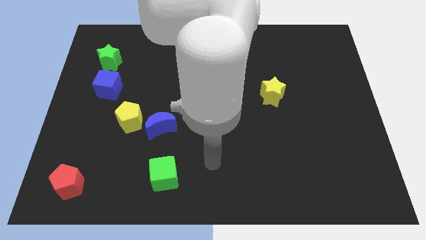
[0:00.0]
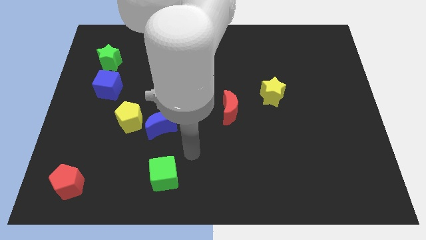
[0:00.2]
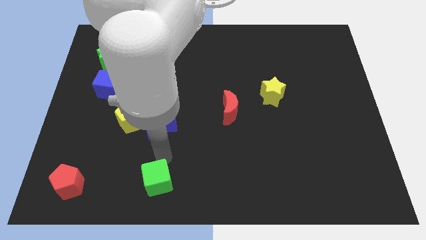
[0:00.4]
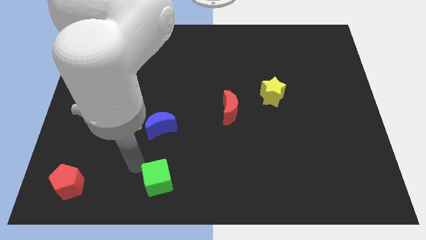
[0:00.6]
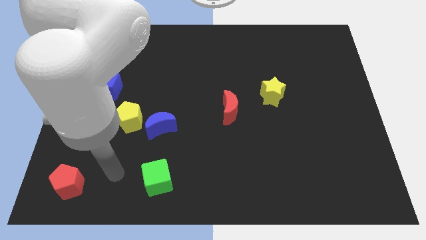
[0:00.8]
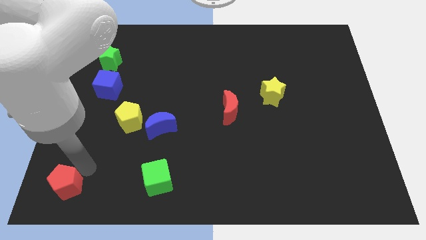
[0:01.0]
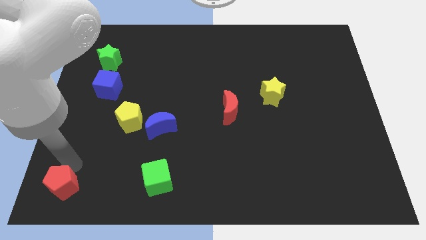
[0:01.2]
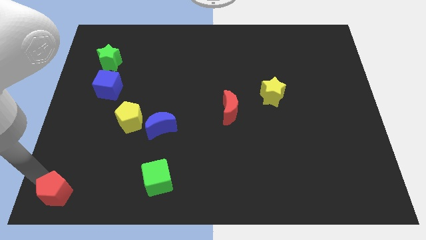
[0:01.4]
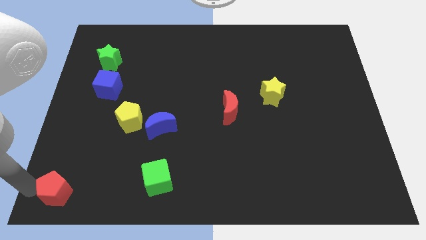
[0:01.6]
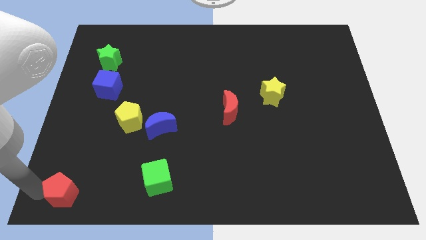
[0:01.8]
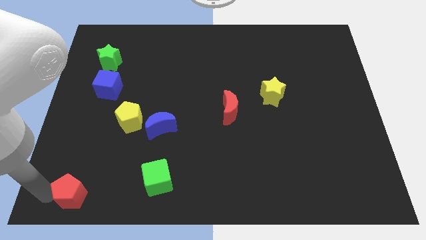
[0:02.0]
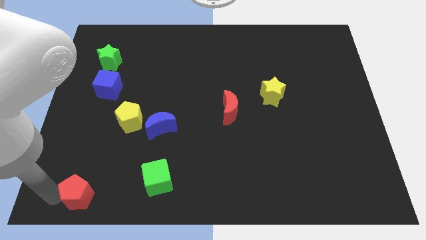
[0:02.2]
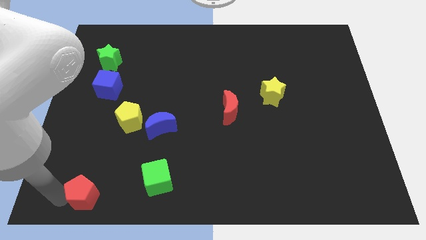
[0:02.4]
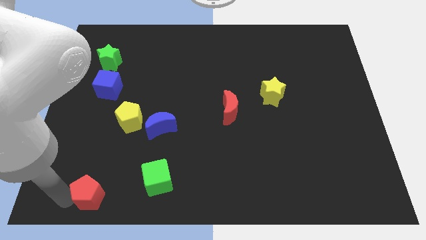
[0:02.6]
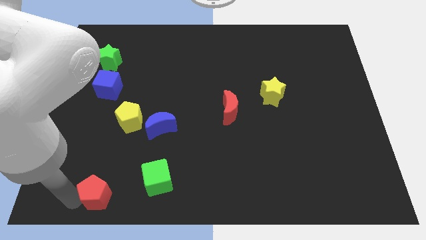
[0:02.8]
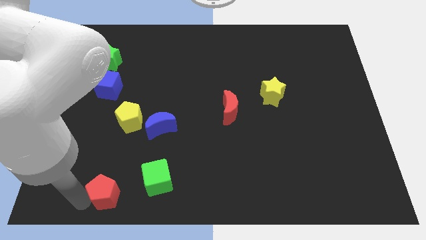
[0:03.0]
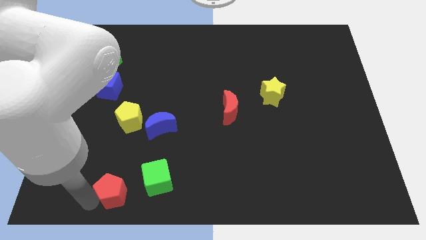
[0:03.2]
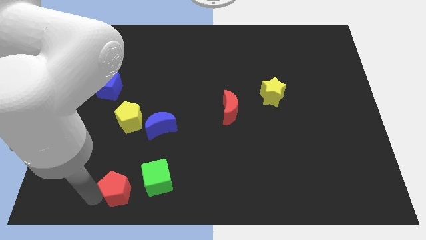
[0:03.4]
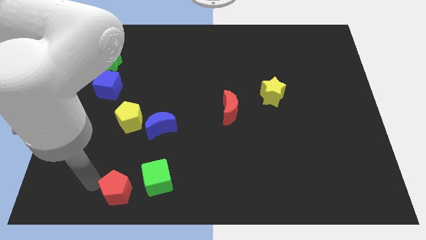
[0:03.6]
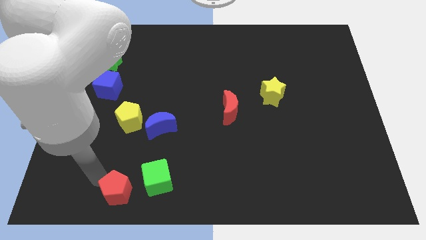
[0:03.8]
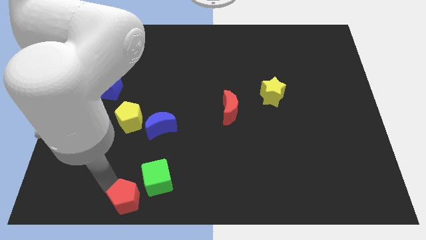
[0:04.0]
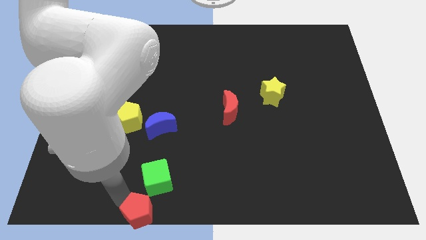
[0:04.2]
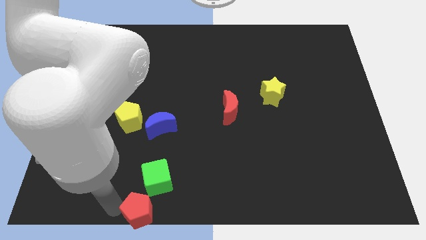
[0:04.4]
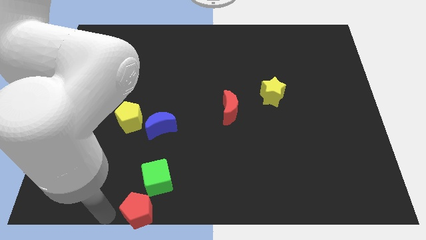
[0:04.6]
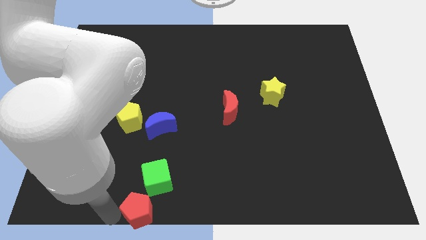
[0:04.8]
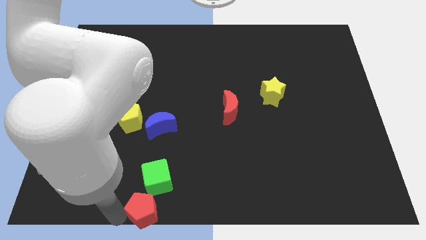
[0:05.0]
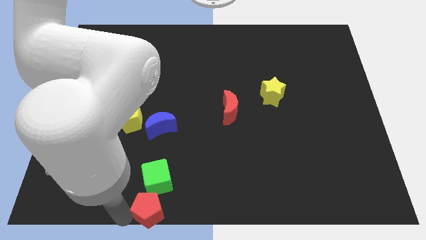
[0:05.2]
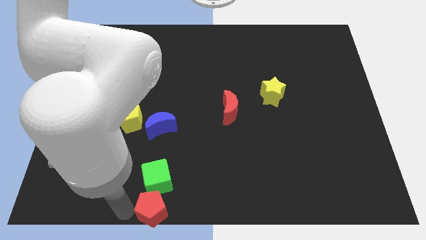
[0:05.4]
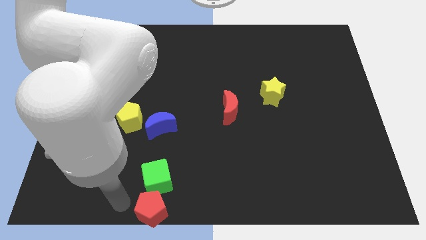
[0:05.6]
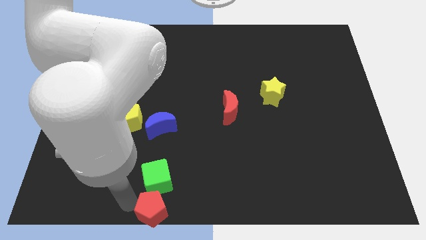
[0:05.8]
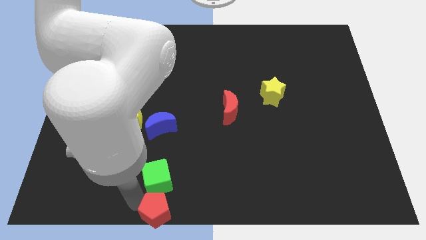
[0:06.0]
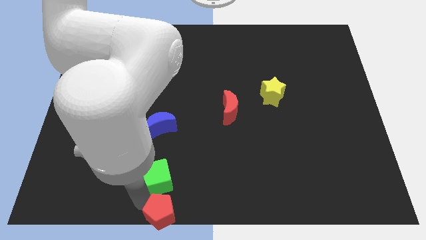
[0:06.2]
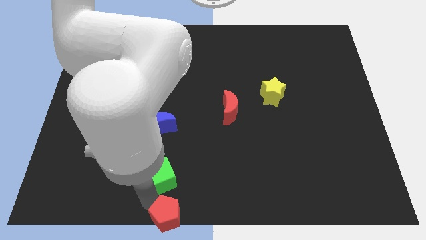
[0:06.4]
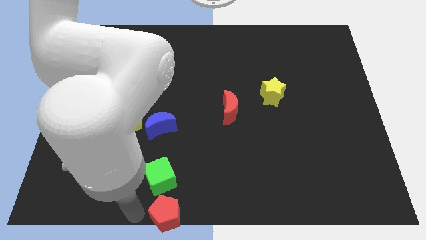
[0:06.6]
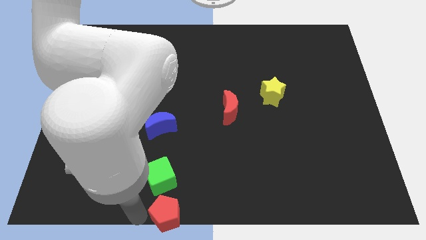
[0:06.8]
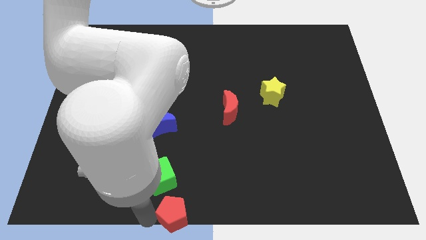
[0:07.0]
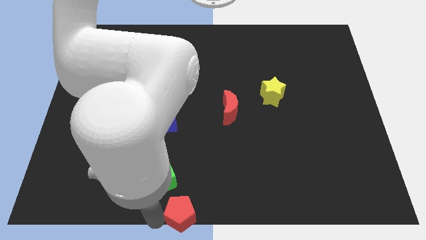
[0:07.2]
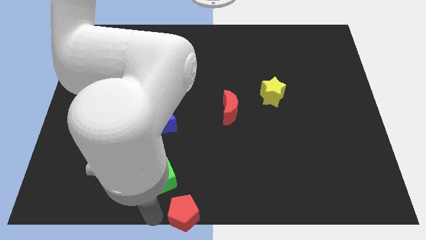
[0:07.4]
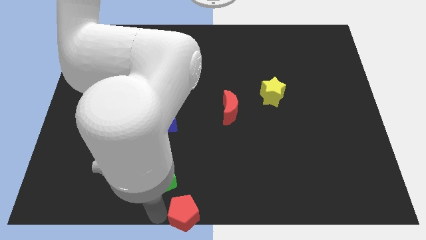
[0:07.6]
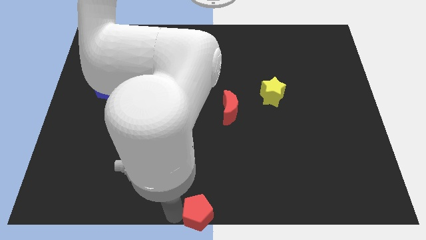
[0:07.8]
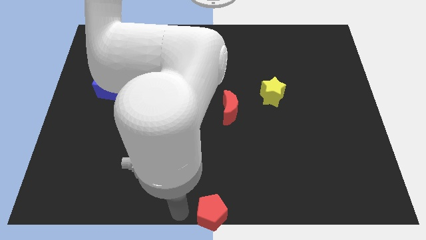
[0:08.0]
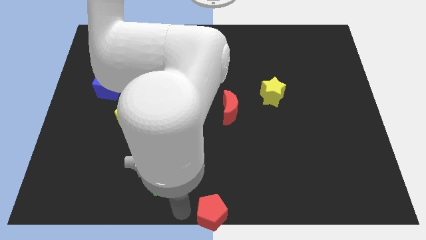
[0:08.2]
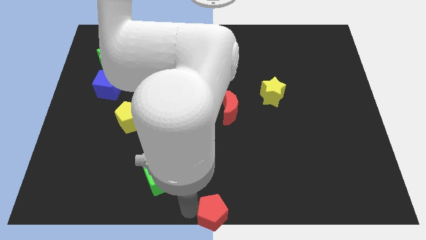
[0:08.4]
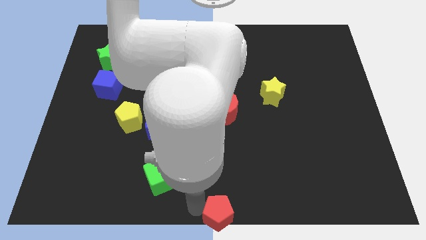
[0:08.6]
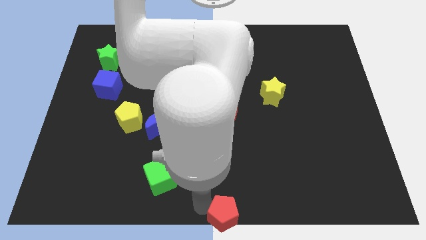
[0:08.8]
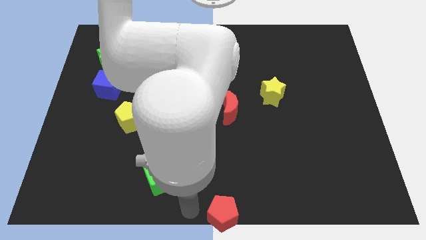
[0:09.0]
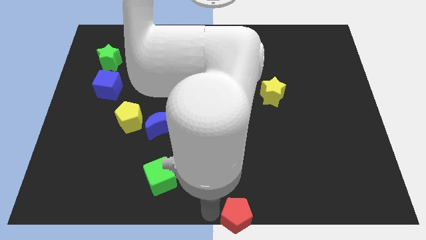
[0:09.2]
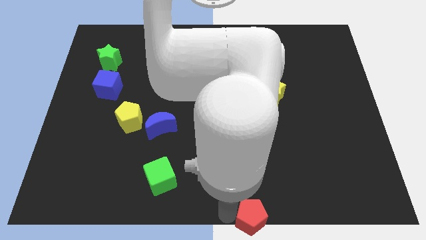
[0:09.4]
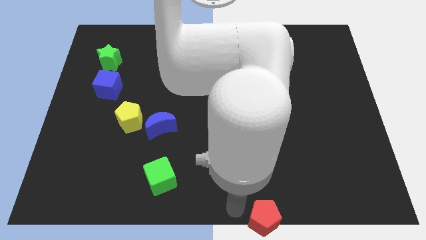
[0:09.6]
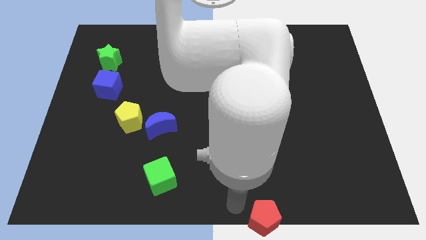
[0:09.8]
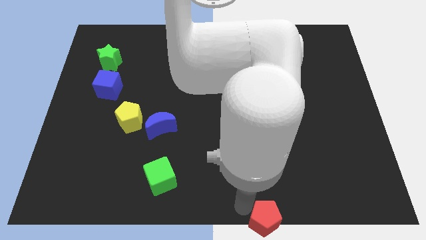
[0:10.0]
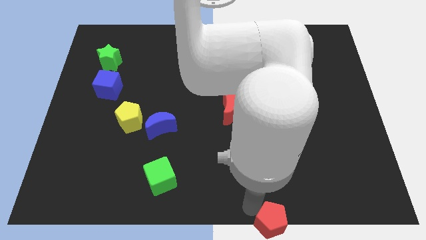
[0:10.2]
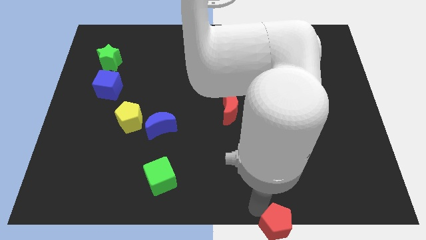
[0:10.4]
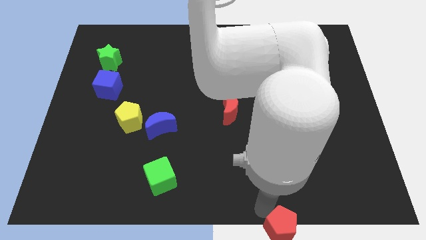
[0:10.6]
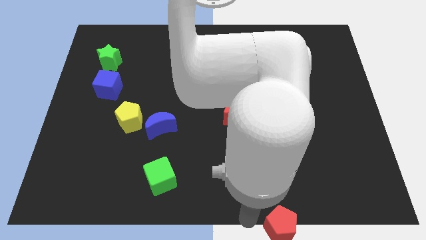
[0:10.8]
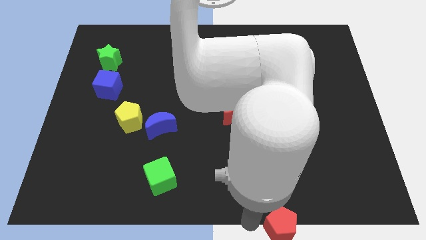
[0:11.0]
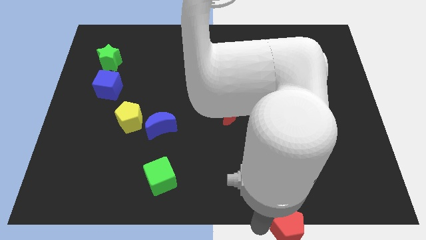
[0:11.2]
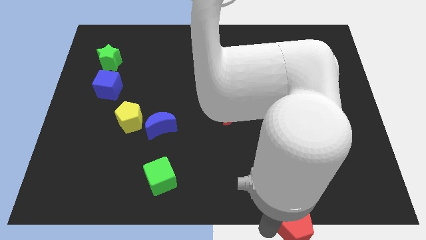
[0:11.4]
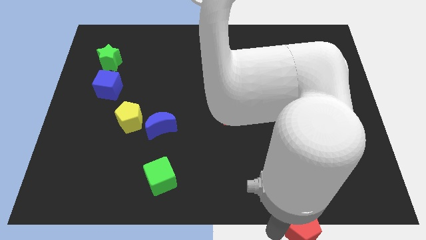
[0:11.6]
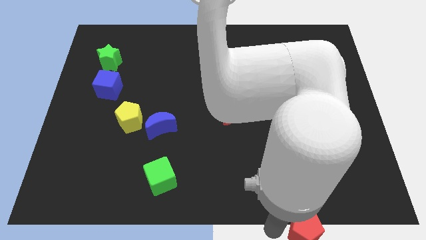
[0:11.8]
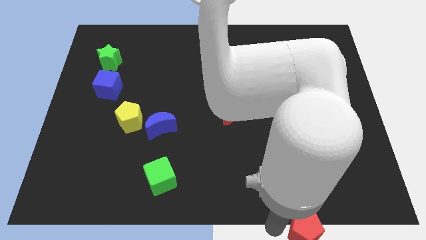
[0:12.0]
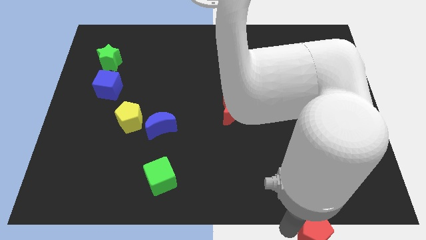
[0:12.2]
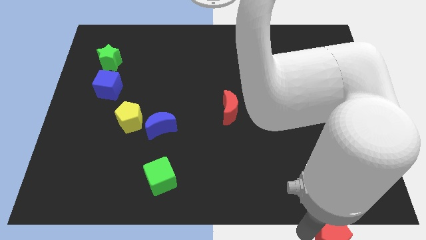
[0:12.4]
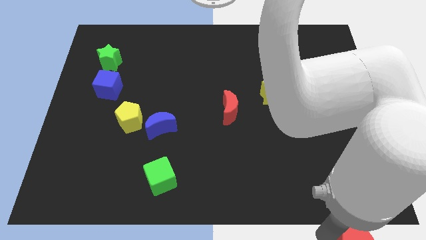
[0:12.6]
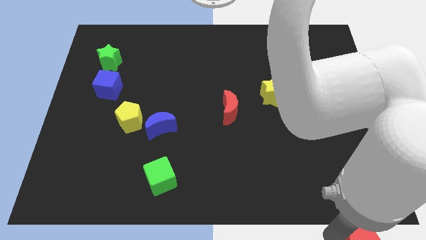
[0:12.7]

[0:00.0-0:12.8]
move the red pentagon to the bottom right corner

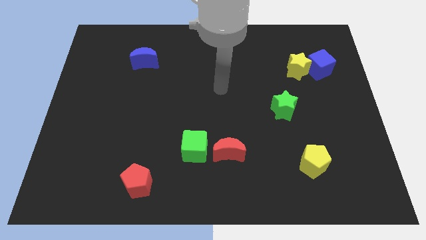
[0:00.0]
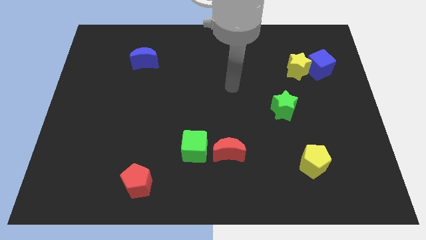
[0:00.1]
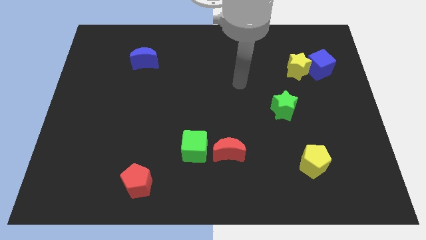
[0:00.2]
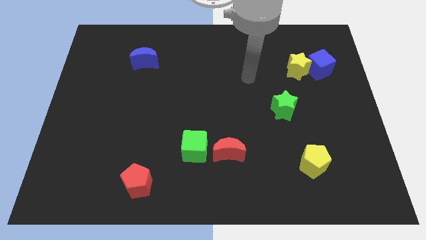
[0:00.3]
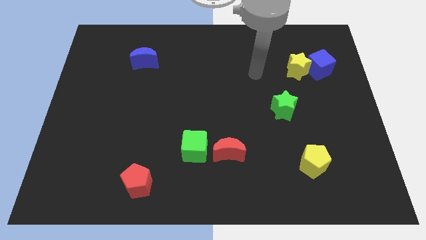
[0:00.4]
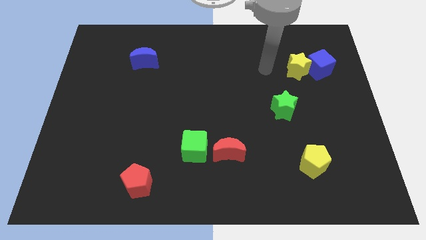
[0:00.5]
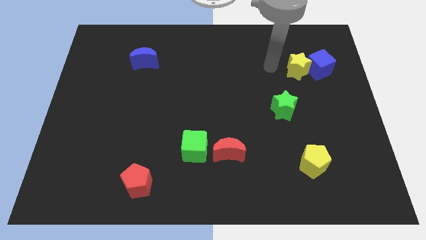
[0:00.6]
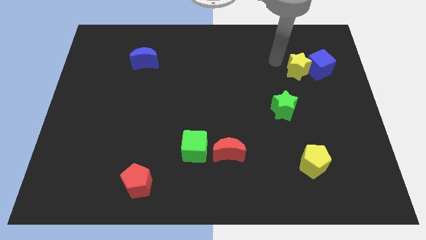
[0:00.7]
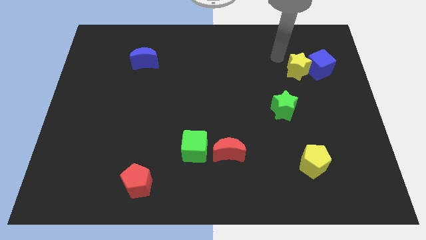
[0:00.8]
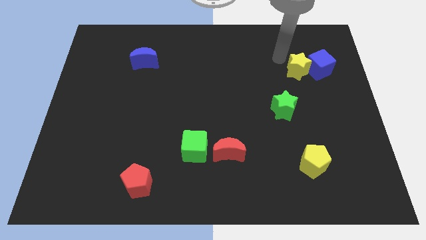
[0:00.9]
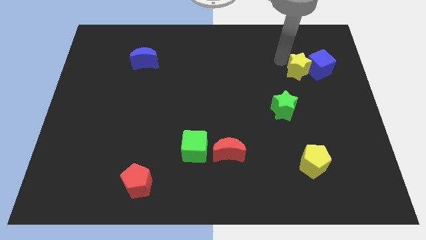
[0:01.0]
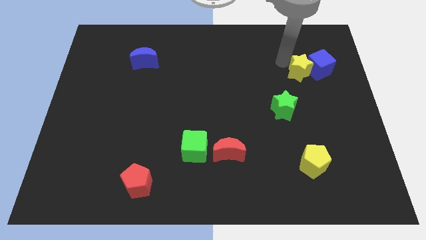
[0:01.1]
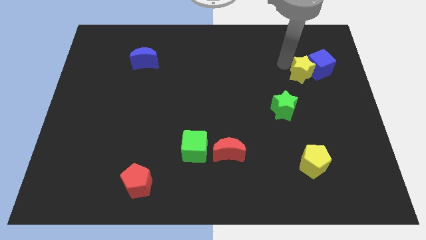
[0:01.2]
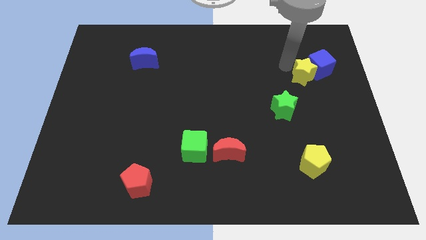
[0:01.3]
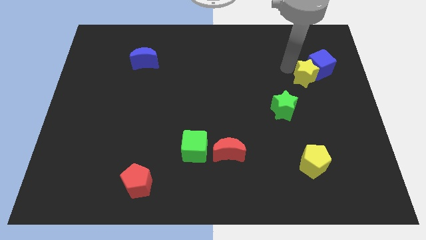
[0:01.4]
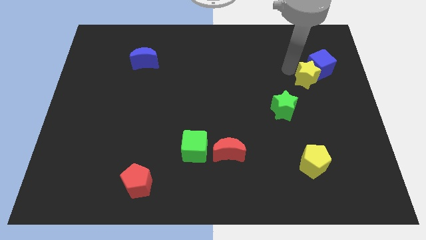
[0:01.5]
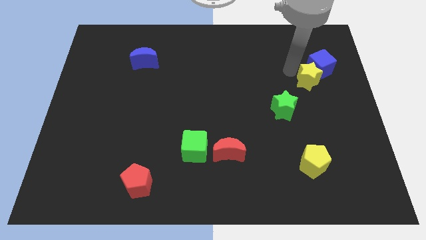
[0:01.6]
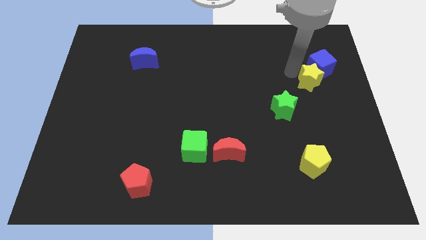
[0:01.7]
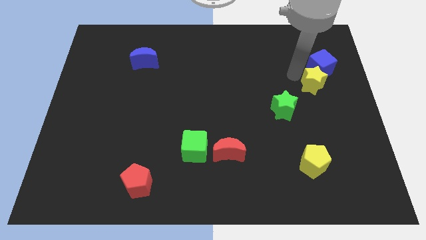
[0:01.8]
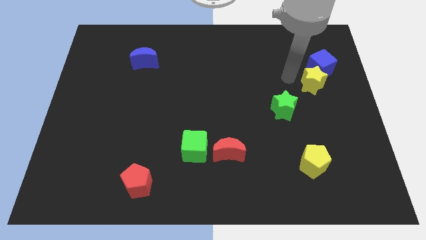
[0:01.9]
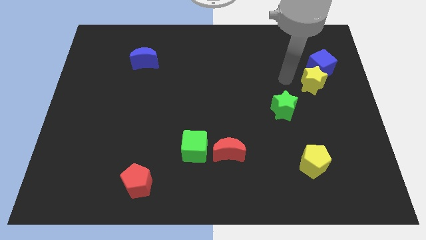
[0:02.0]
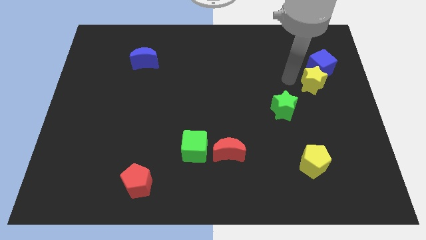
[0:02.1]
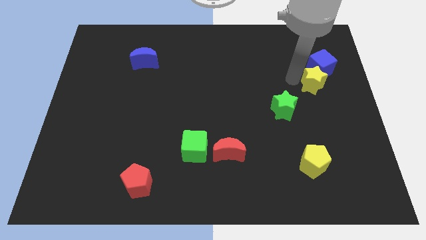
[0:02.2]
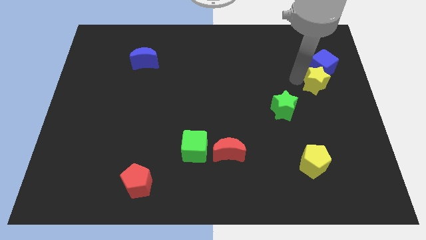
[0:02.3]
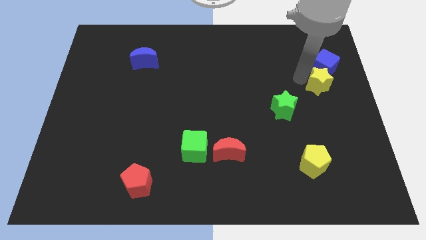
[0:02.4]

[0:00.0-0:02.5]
slide the yellow star to the right side
